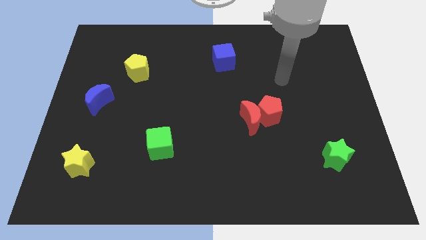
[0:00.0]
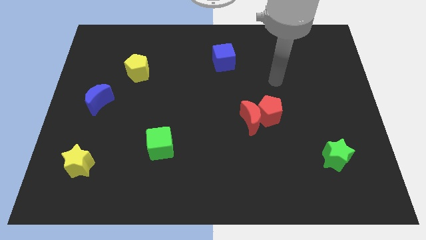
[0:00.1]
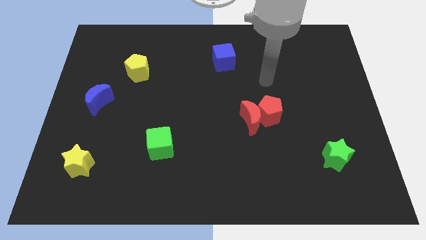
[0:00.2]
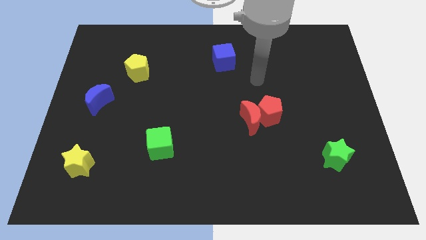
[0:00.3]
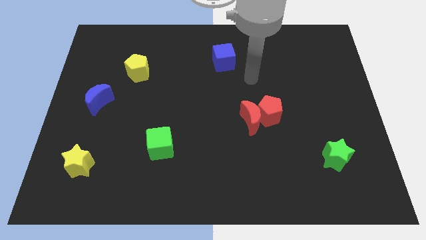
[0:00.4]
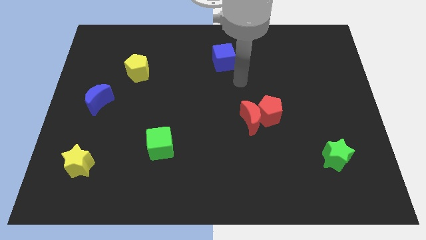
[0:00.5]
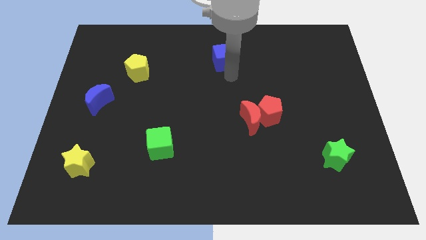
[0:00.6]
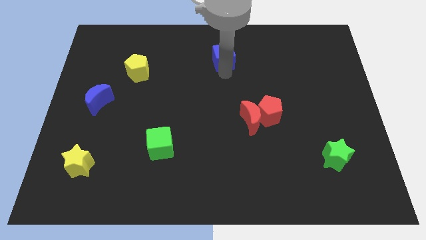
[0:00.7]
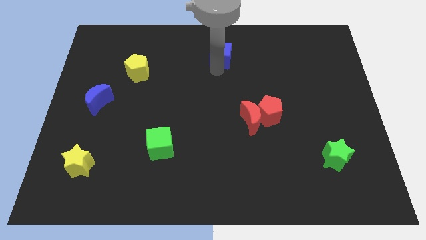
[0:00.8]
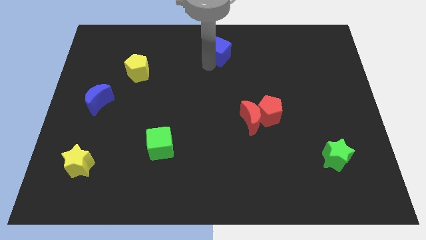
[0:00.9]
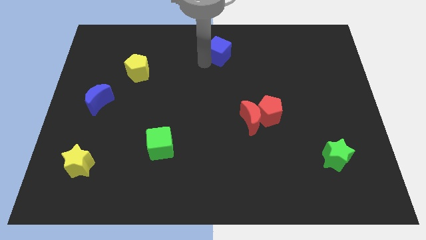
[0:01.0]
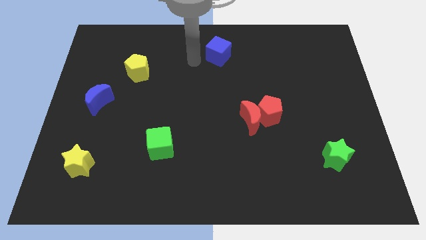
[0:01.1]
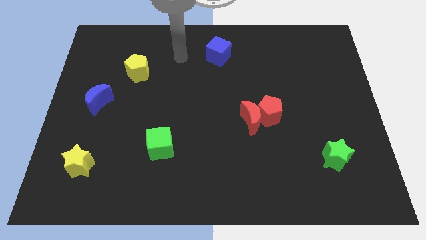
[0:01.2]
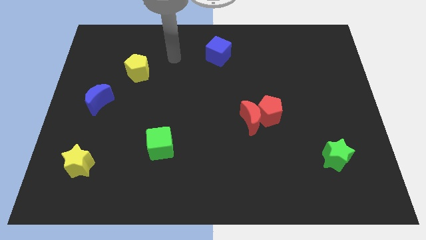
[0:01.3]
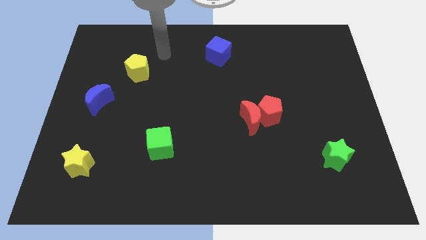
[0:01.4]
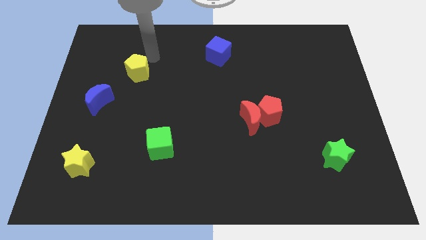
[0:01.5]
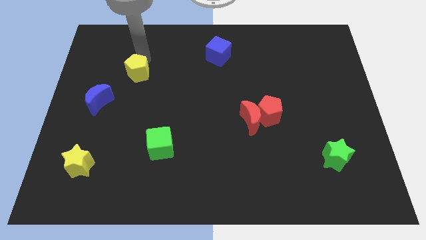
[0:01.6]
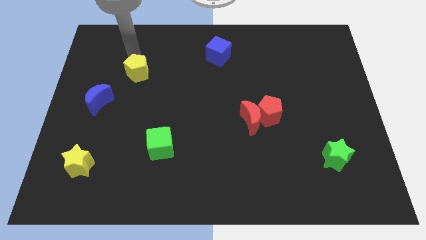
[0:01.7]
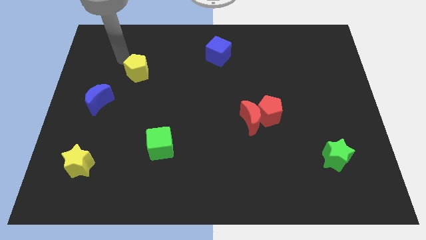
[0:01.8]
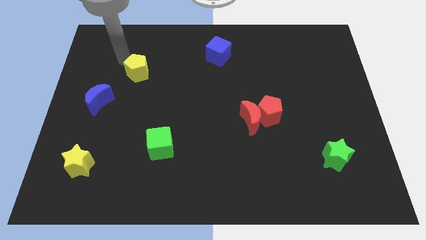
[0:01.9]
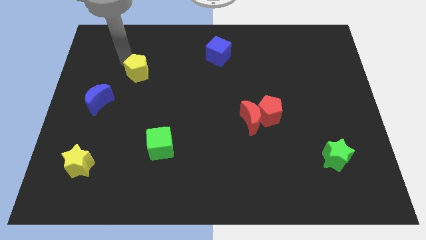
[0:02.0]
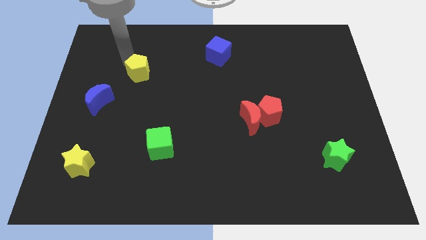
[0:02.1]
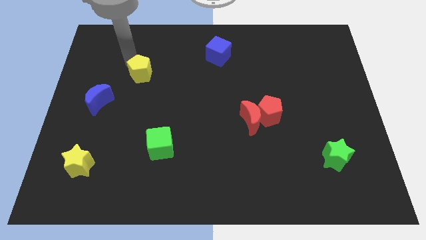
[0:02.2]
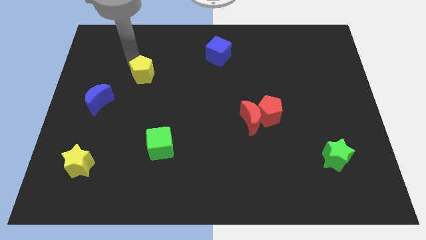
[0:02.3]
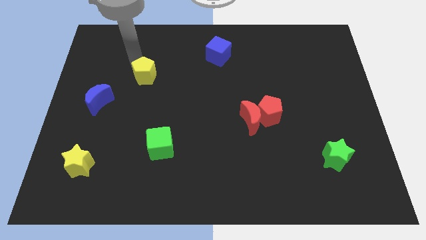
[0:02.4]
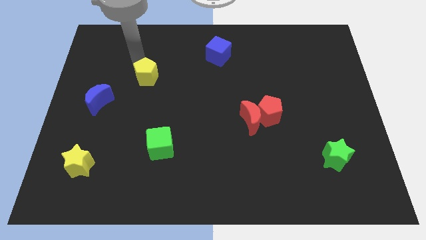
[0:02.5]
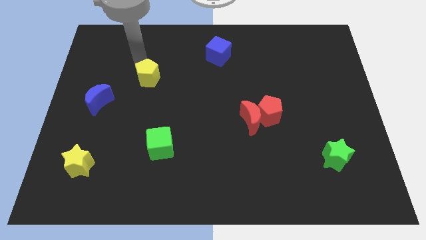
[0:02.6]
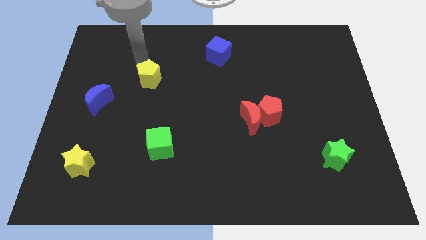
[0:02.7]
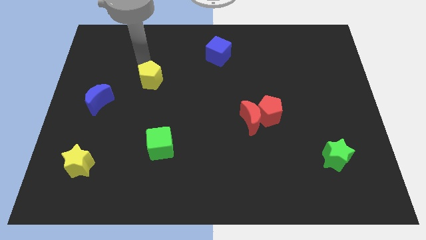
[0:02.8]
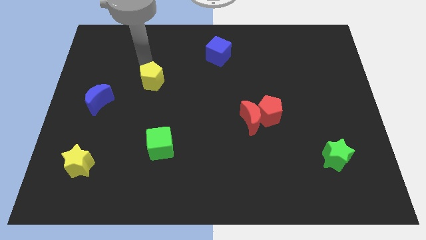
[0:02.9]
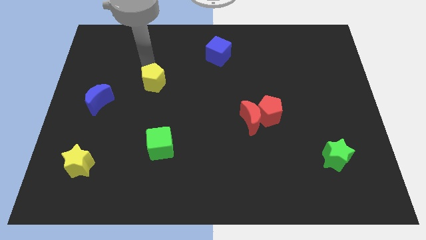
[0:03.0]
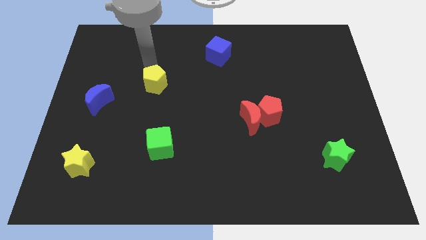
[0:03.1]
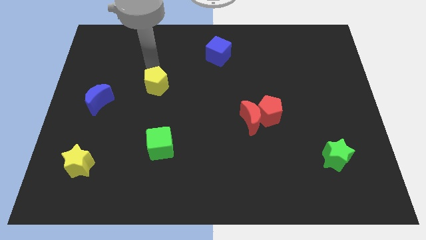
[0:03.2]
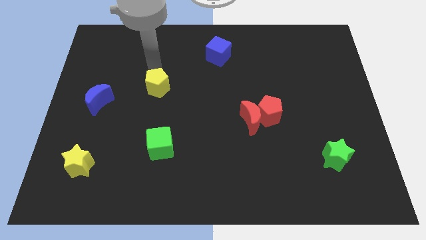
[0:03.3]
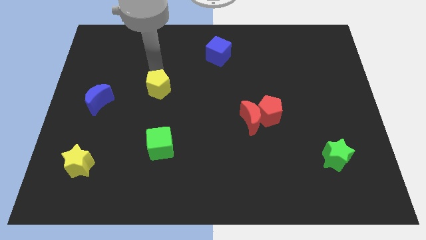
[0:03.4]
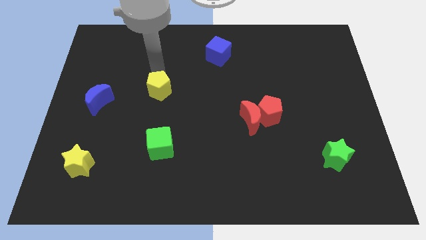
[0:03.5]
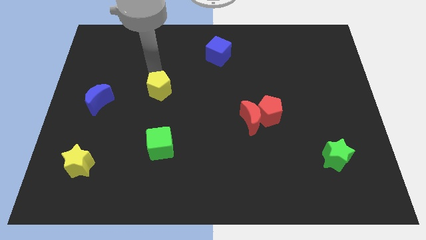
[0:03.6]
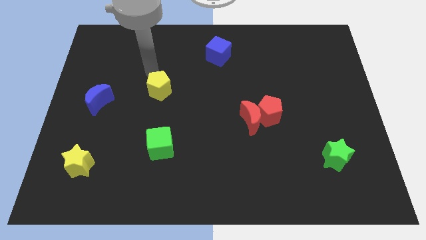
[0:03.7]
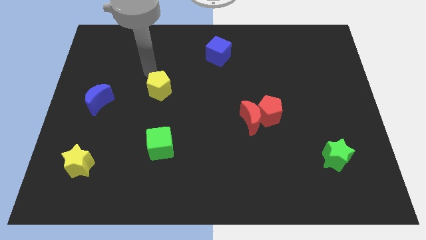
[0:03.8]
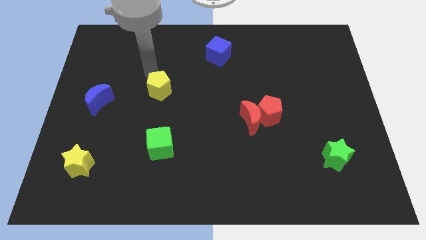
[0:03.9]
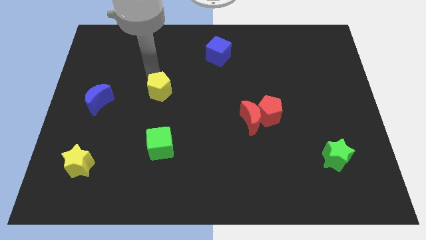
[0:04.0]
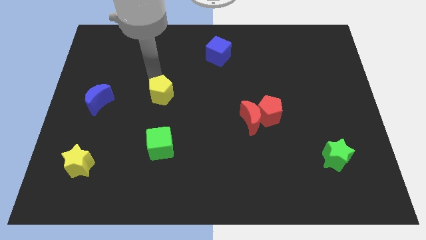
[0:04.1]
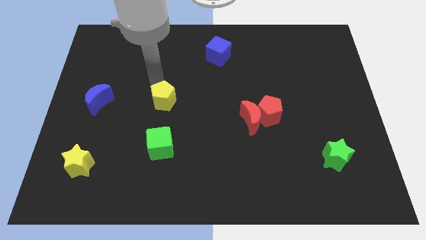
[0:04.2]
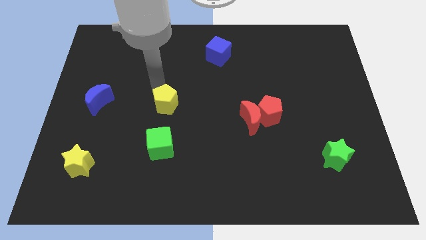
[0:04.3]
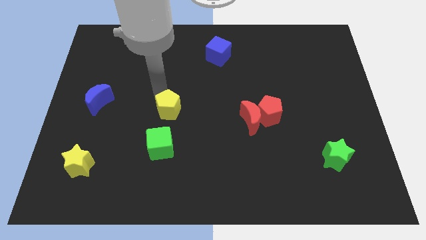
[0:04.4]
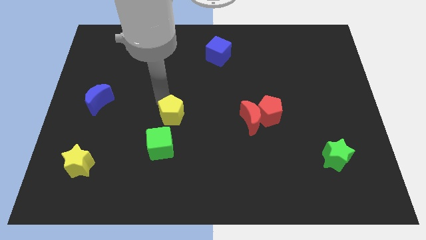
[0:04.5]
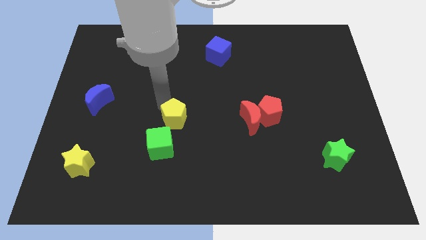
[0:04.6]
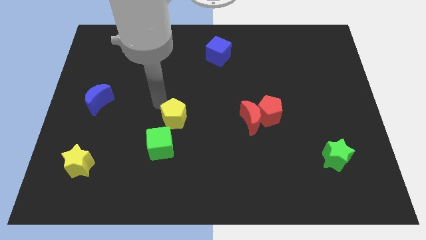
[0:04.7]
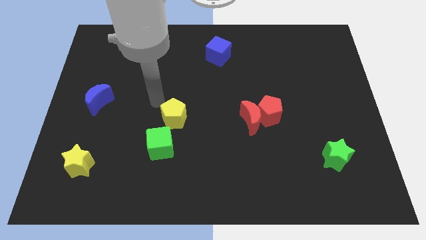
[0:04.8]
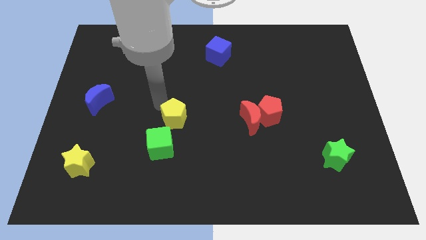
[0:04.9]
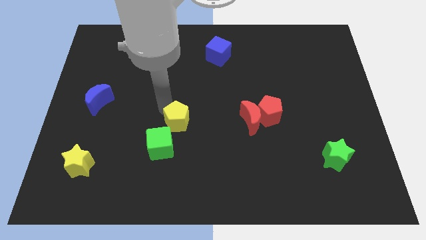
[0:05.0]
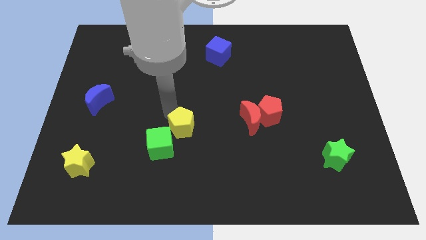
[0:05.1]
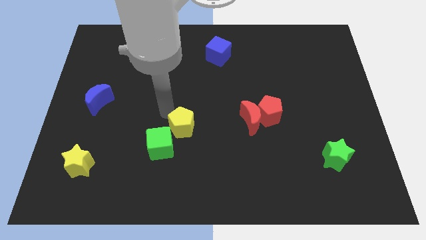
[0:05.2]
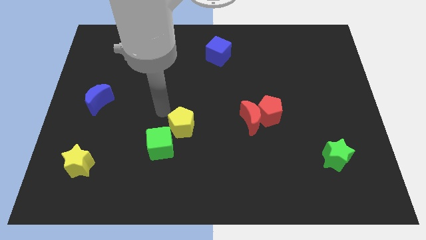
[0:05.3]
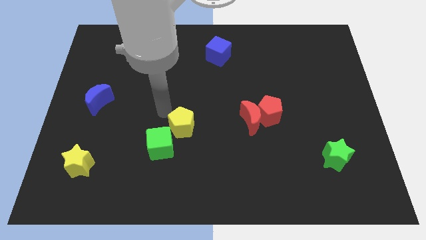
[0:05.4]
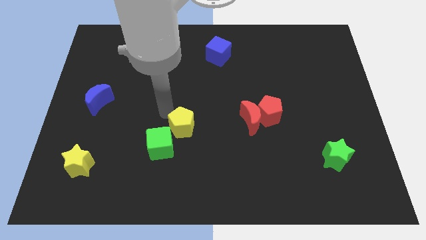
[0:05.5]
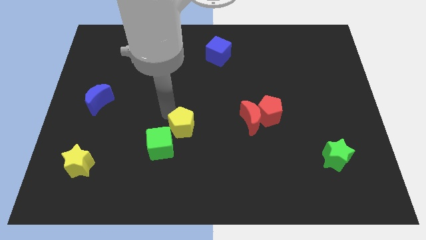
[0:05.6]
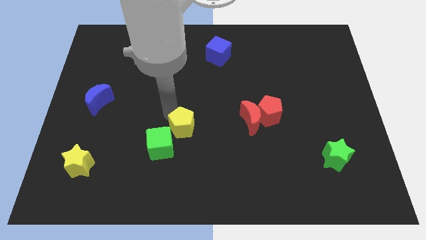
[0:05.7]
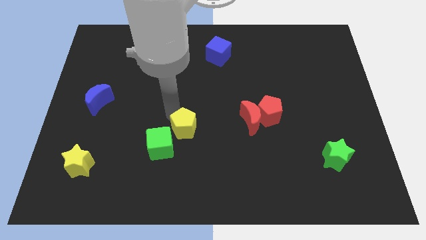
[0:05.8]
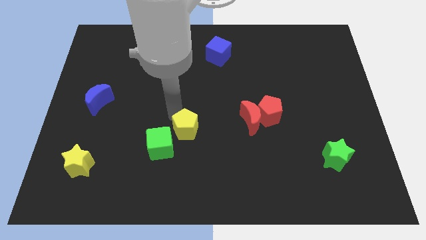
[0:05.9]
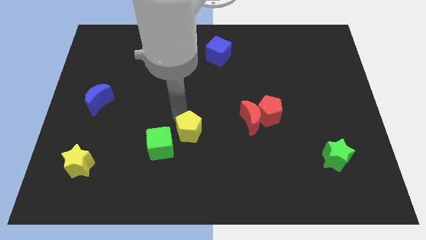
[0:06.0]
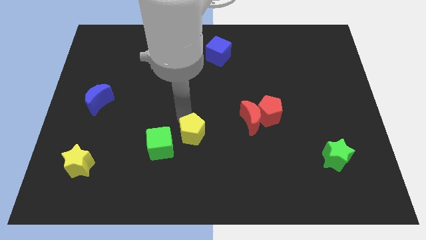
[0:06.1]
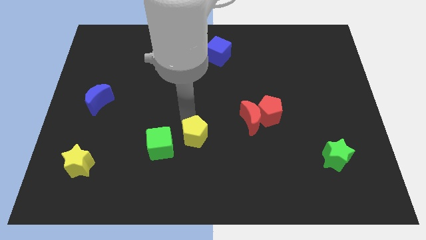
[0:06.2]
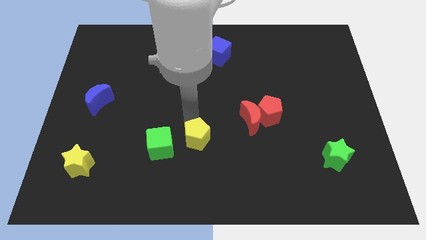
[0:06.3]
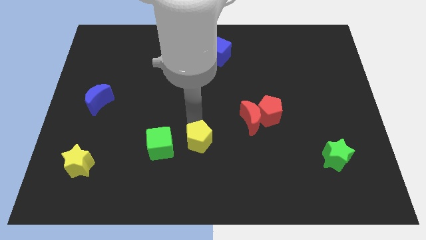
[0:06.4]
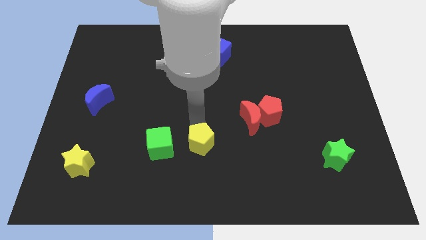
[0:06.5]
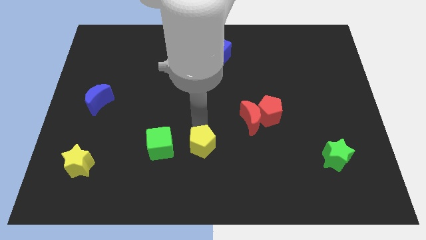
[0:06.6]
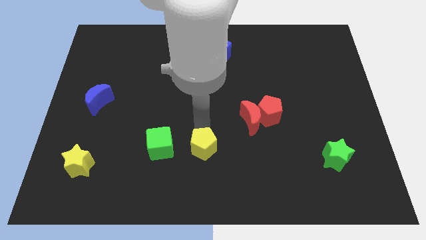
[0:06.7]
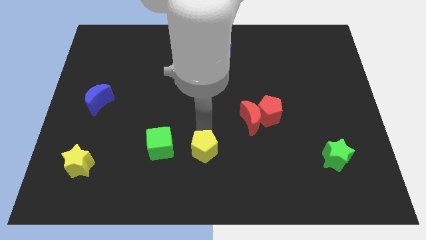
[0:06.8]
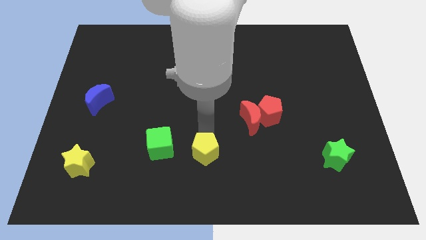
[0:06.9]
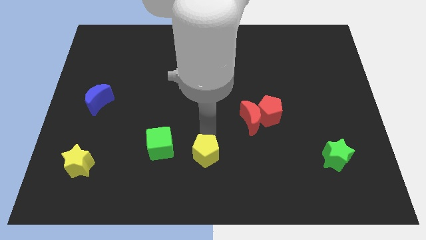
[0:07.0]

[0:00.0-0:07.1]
push the yellow pentagon to the bottom
